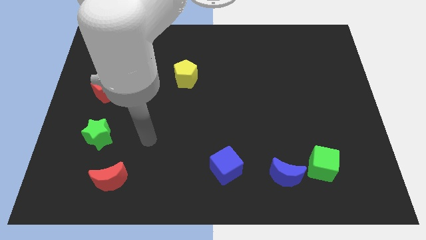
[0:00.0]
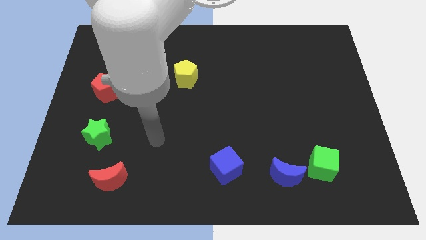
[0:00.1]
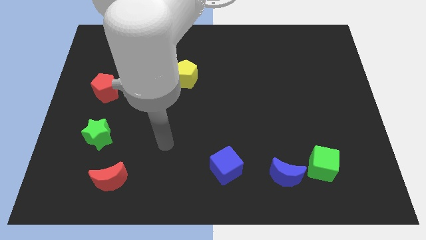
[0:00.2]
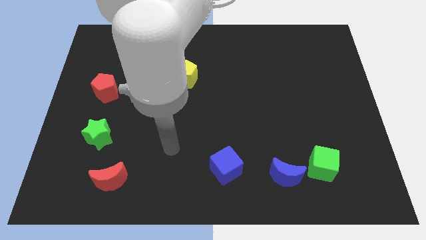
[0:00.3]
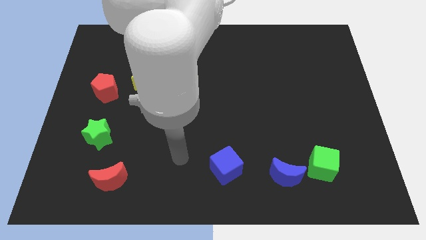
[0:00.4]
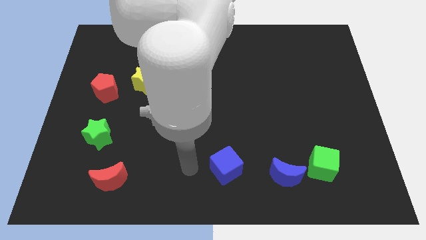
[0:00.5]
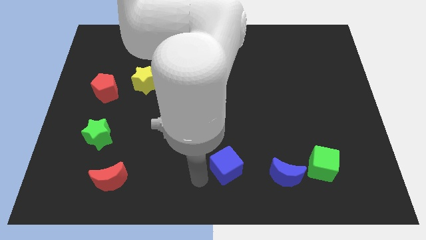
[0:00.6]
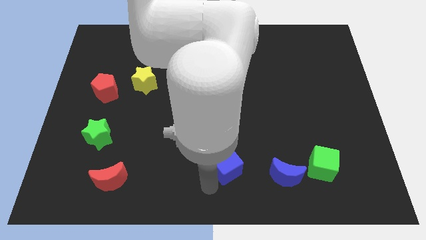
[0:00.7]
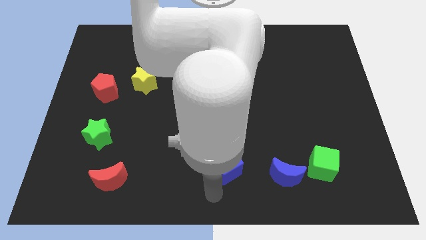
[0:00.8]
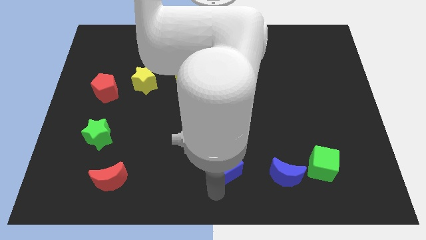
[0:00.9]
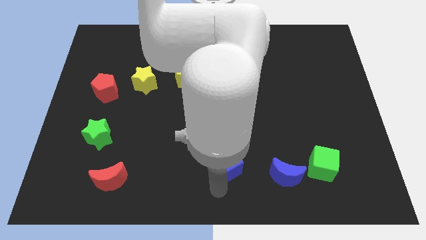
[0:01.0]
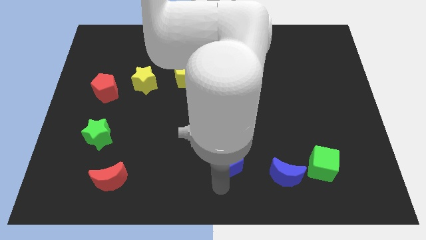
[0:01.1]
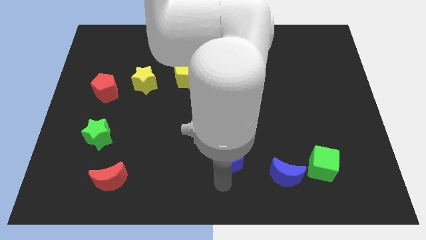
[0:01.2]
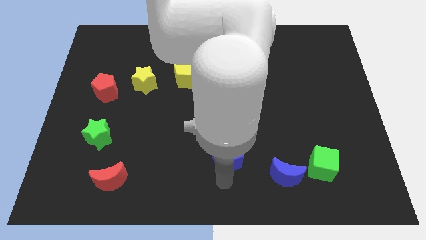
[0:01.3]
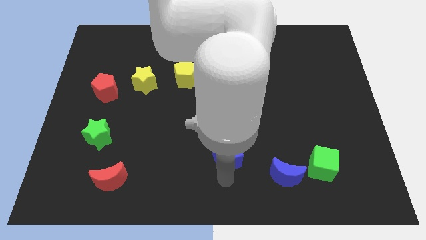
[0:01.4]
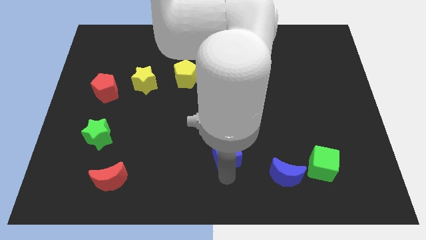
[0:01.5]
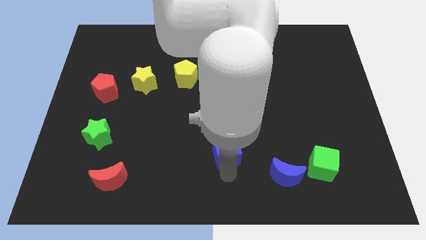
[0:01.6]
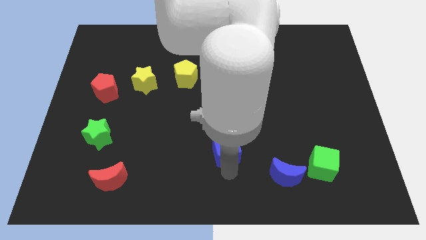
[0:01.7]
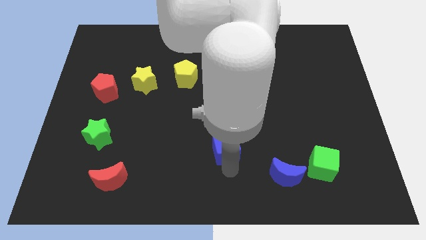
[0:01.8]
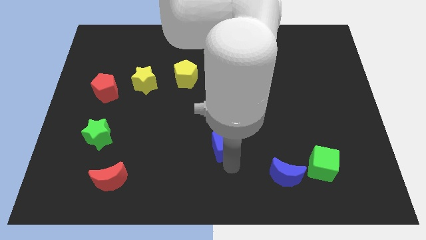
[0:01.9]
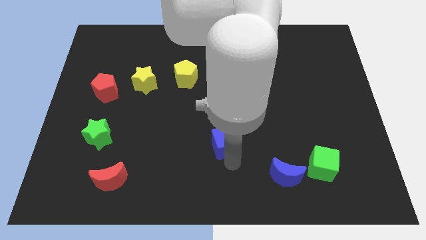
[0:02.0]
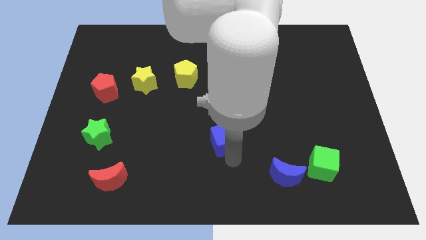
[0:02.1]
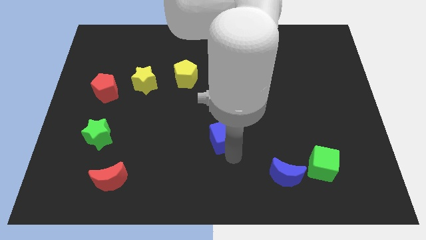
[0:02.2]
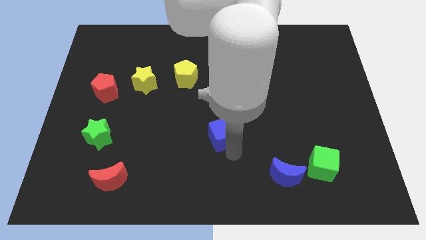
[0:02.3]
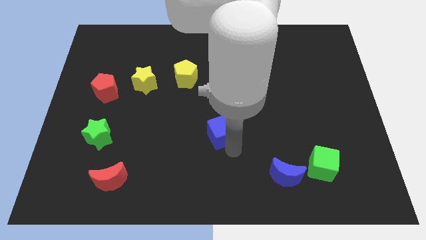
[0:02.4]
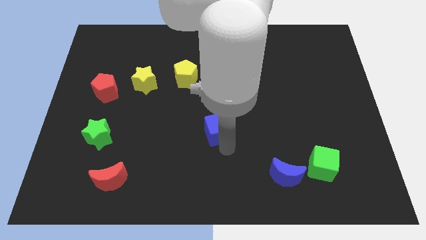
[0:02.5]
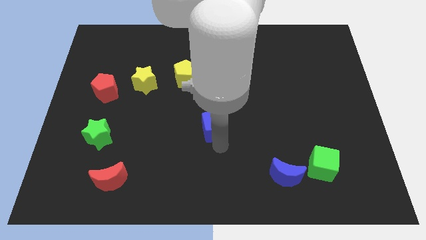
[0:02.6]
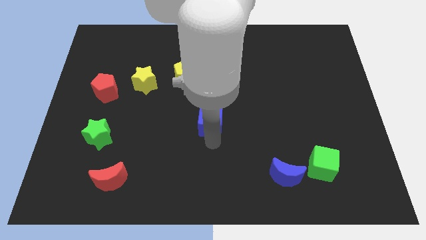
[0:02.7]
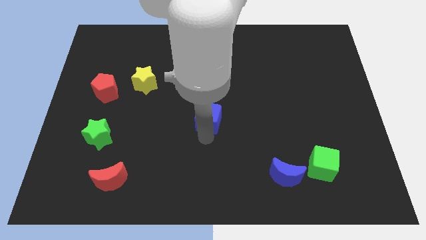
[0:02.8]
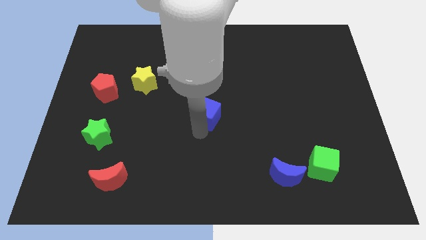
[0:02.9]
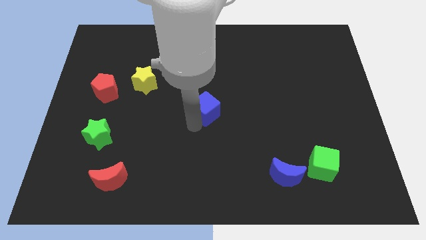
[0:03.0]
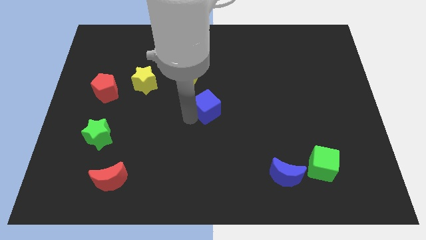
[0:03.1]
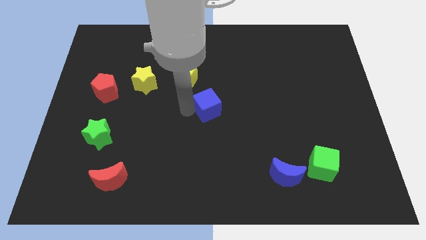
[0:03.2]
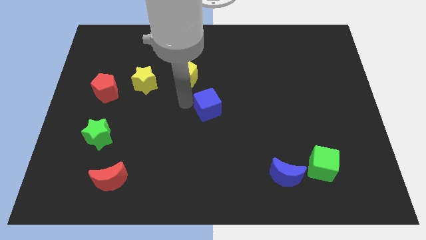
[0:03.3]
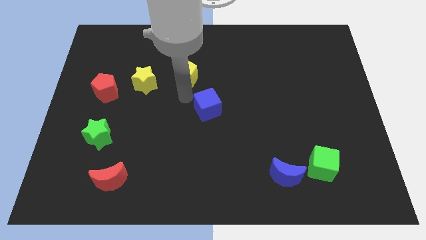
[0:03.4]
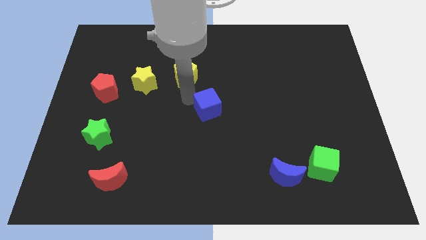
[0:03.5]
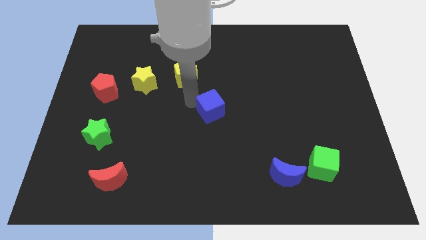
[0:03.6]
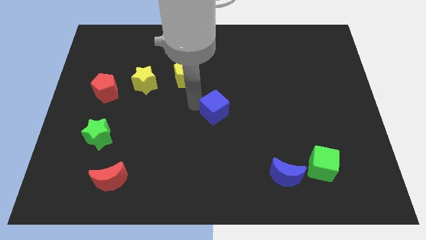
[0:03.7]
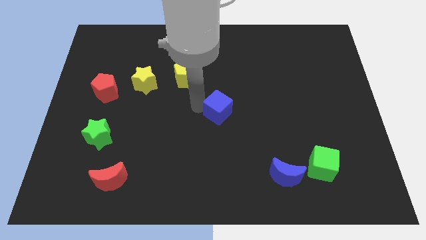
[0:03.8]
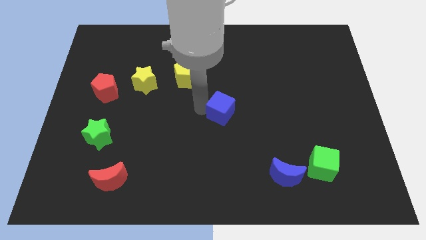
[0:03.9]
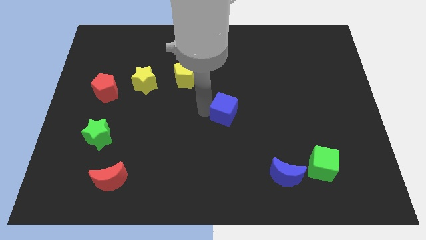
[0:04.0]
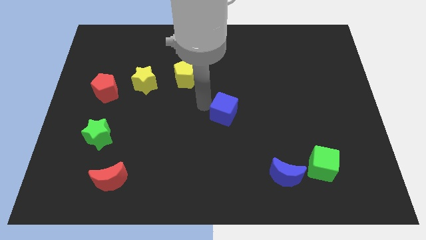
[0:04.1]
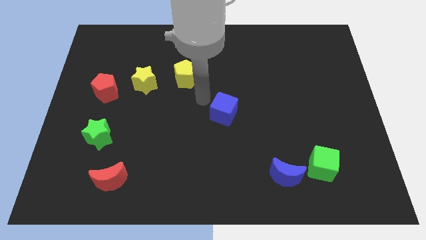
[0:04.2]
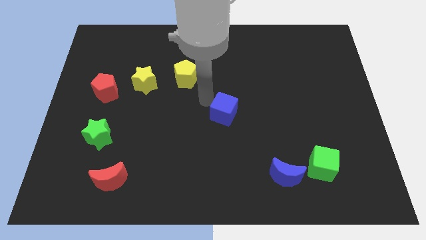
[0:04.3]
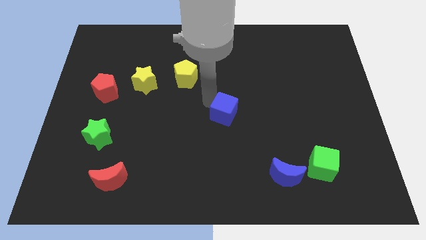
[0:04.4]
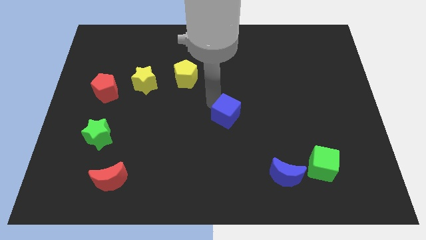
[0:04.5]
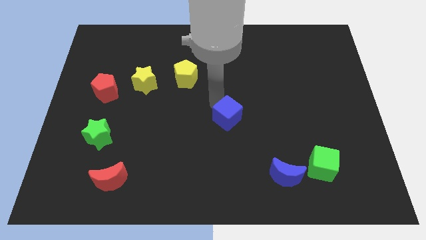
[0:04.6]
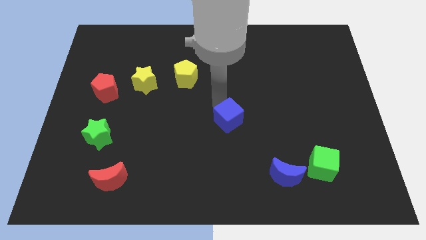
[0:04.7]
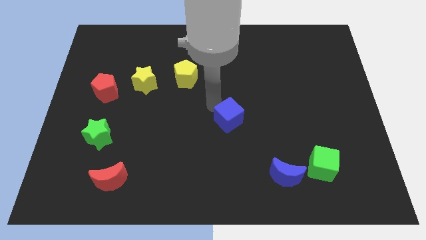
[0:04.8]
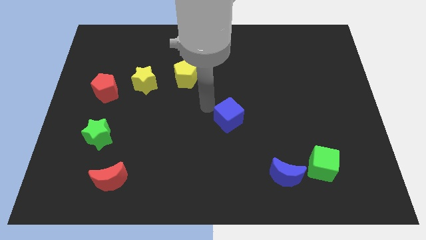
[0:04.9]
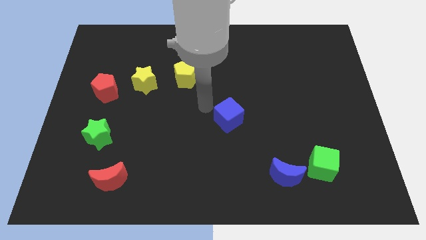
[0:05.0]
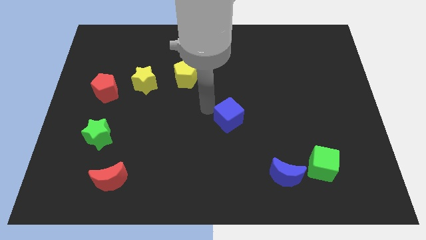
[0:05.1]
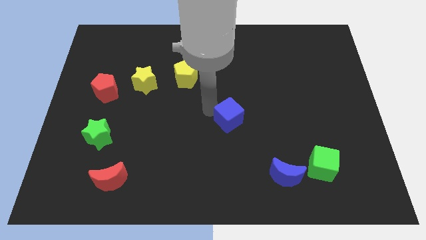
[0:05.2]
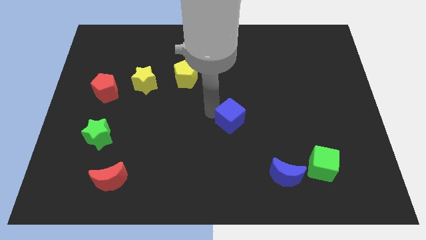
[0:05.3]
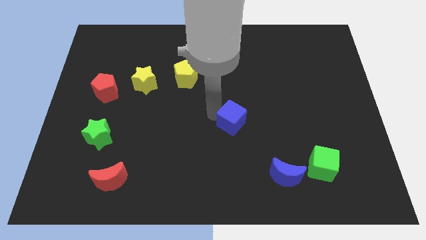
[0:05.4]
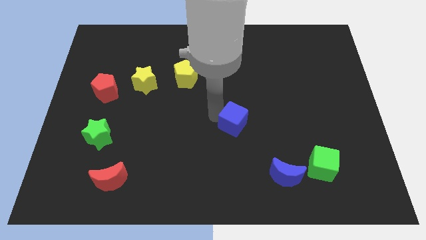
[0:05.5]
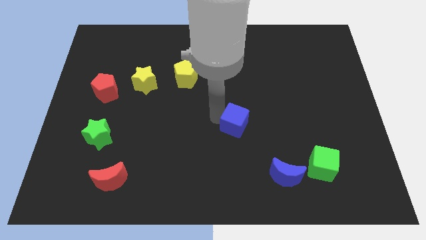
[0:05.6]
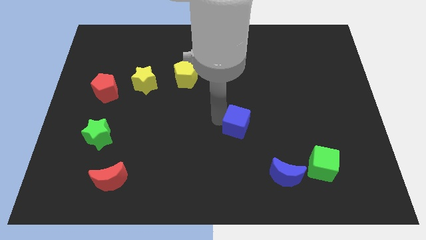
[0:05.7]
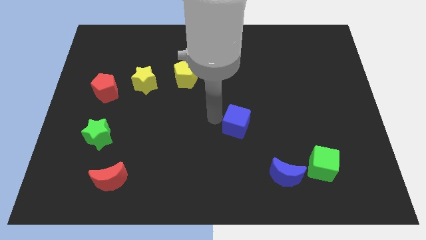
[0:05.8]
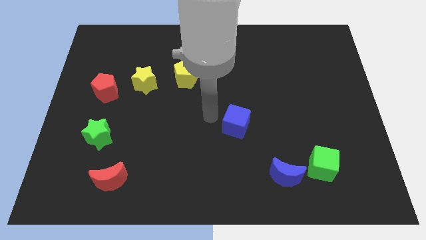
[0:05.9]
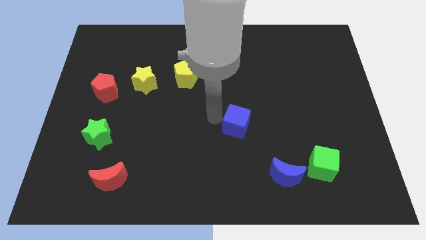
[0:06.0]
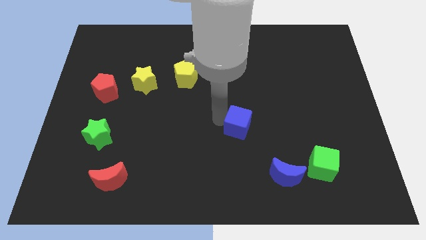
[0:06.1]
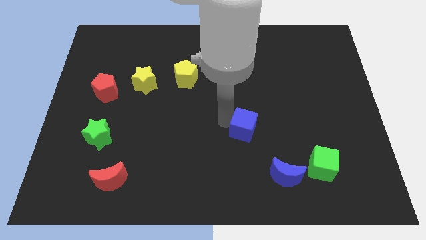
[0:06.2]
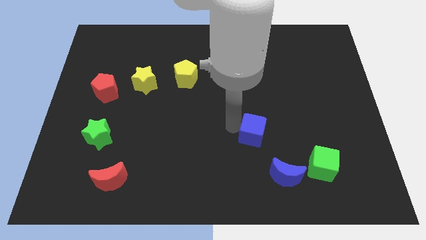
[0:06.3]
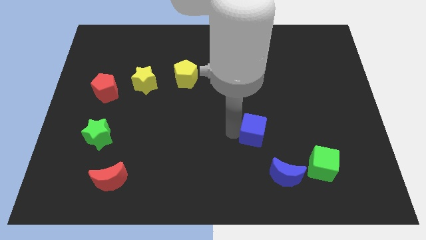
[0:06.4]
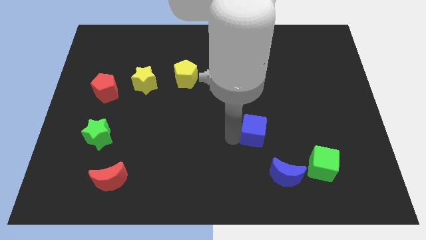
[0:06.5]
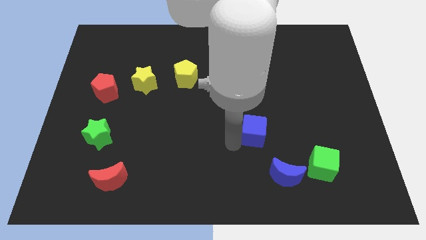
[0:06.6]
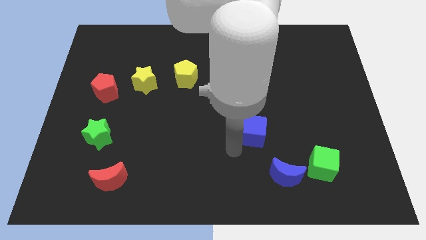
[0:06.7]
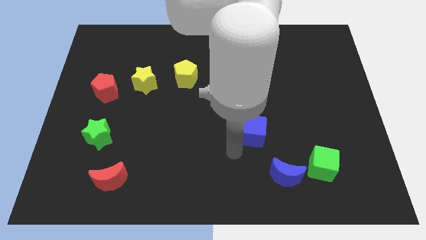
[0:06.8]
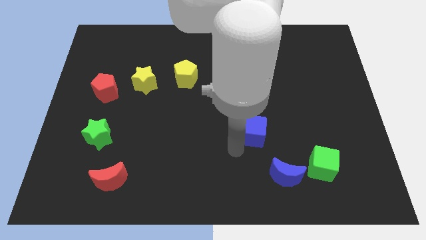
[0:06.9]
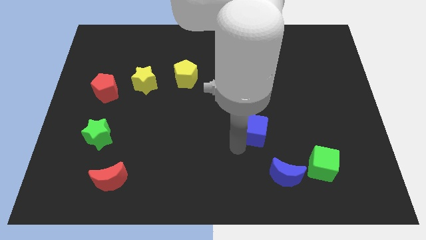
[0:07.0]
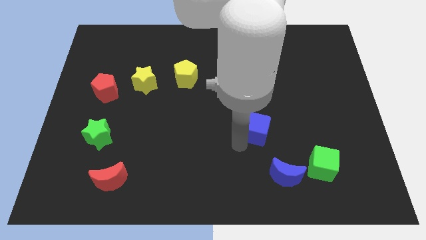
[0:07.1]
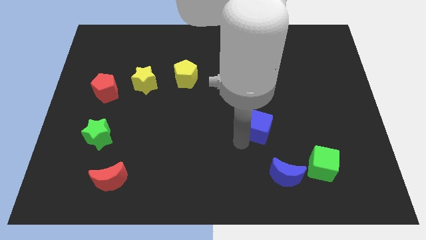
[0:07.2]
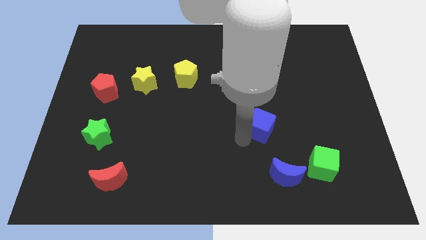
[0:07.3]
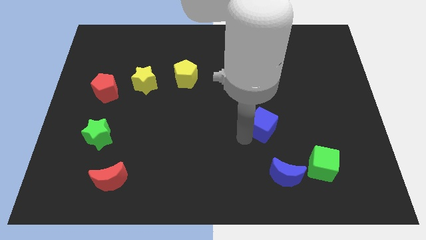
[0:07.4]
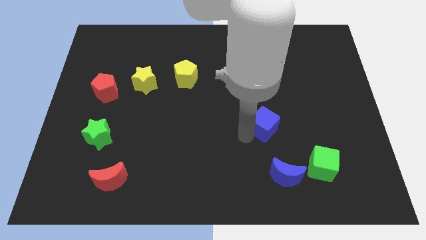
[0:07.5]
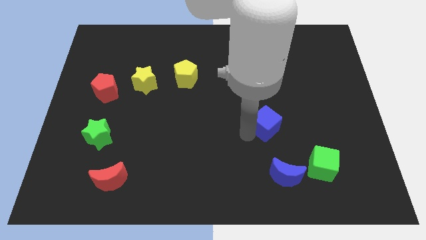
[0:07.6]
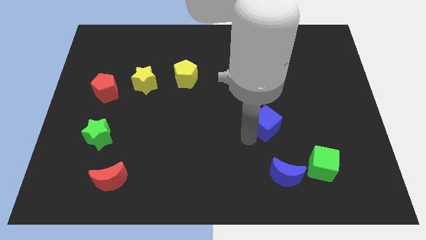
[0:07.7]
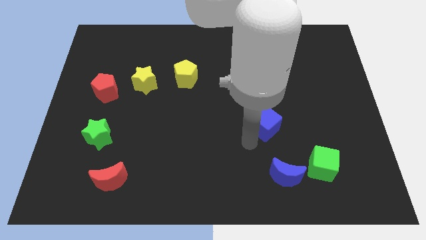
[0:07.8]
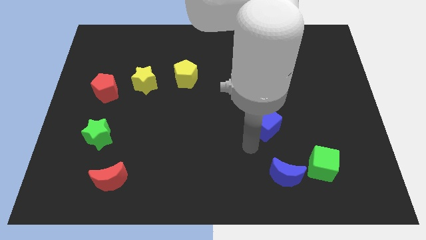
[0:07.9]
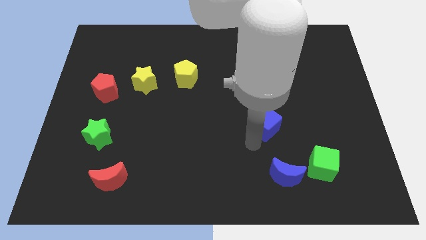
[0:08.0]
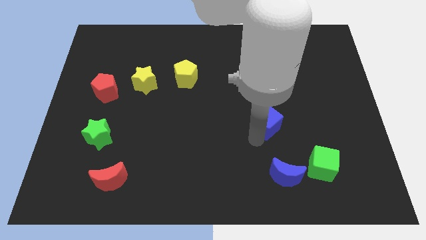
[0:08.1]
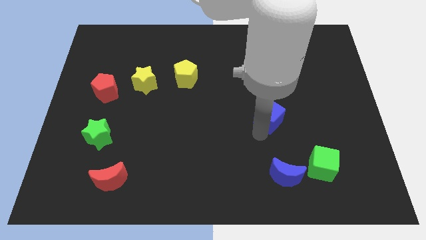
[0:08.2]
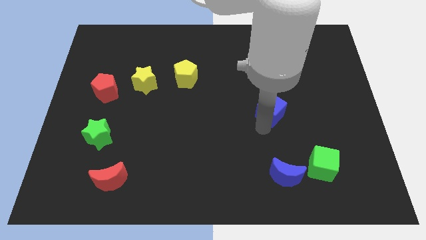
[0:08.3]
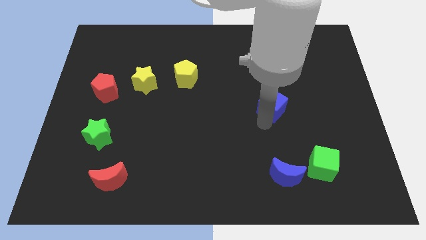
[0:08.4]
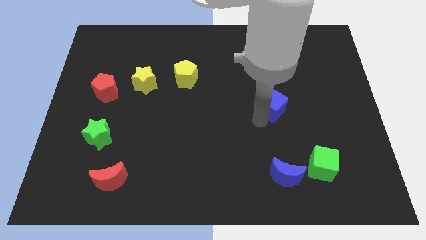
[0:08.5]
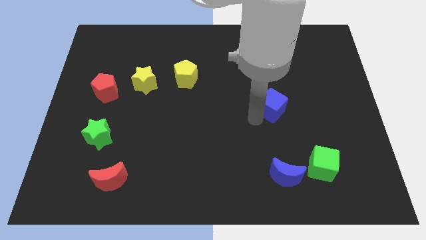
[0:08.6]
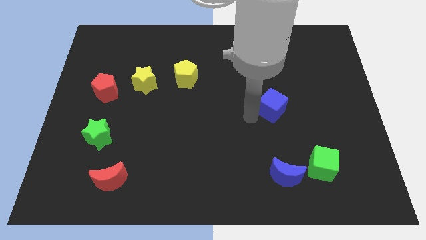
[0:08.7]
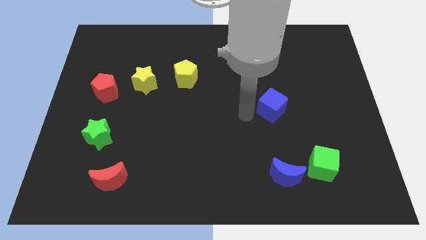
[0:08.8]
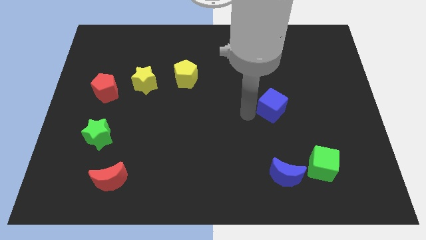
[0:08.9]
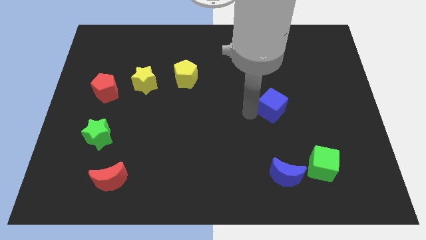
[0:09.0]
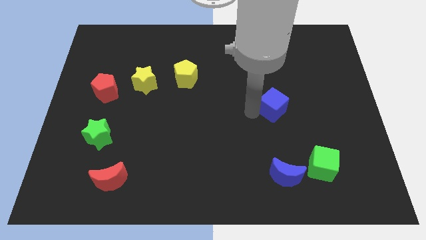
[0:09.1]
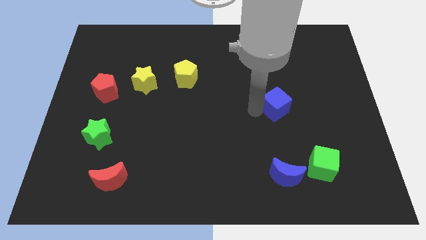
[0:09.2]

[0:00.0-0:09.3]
move the blue cube up and right
